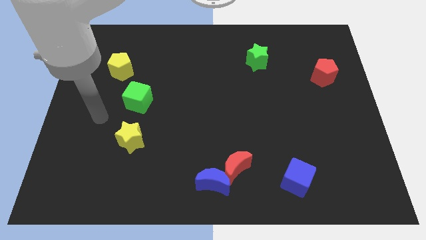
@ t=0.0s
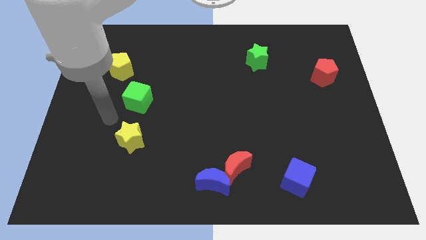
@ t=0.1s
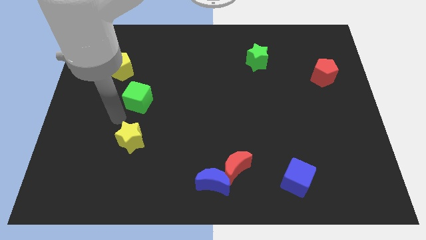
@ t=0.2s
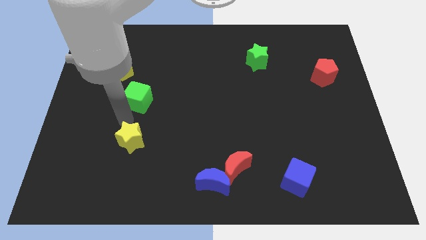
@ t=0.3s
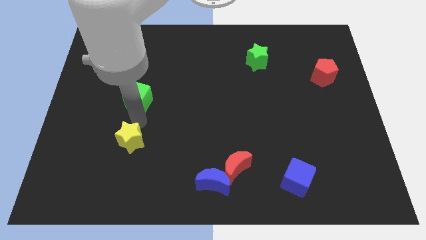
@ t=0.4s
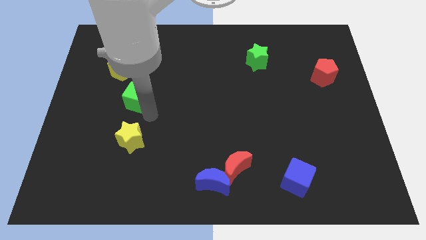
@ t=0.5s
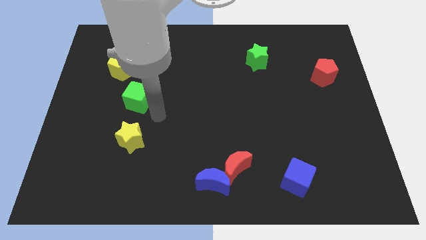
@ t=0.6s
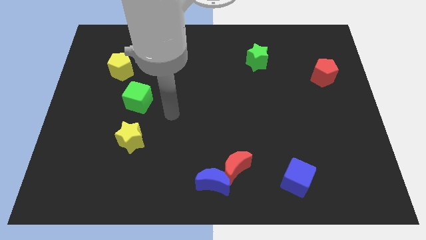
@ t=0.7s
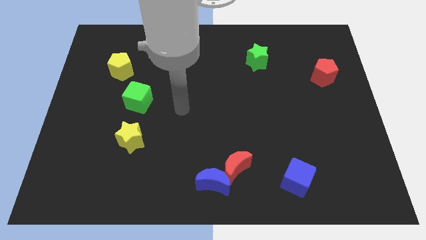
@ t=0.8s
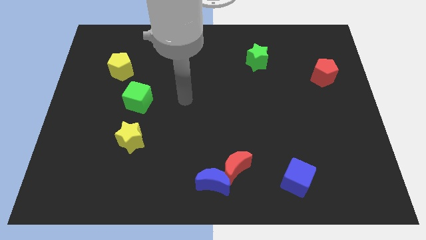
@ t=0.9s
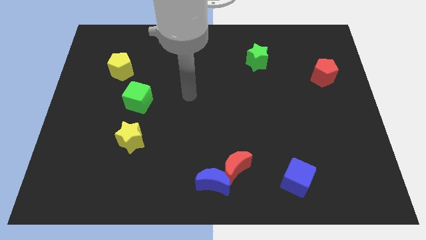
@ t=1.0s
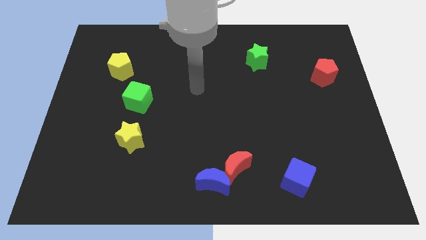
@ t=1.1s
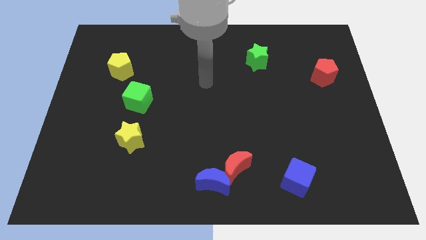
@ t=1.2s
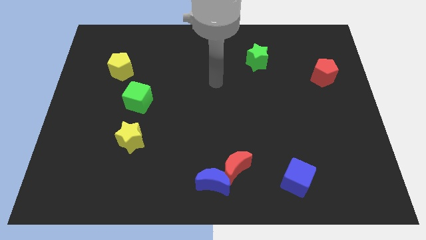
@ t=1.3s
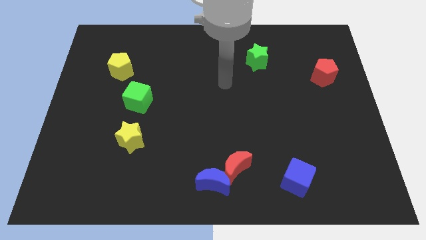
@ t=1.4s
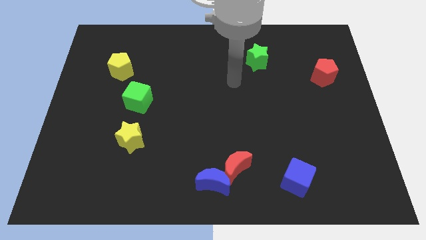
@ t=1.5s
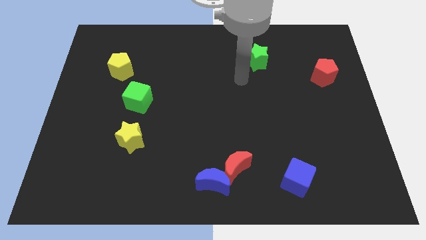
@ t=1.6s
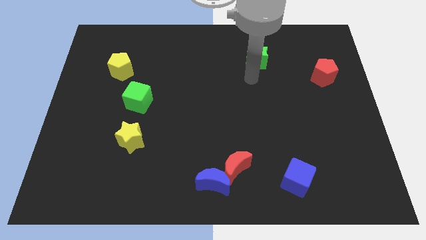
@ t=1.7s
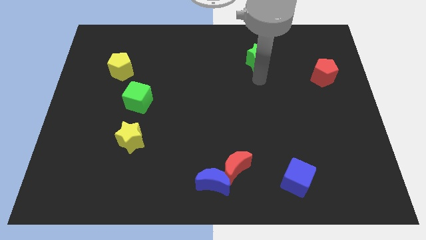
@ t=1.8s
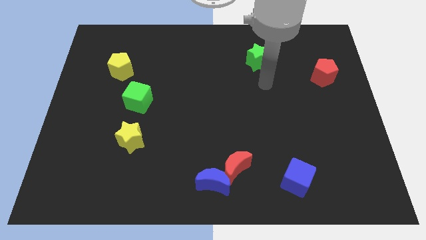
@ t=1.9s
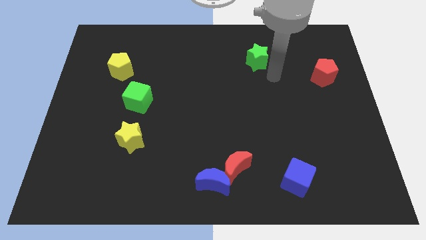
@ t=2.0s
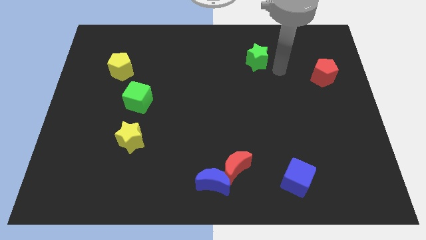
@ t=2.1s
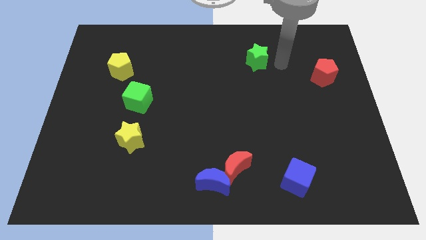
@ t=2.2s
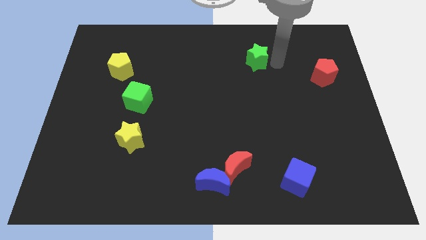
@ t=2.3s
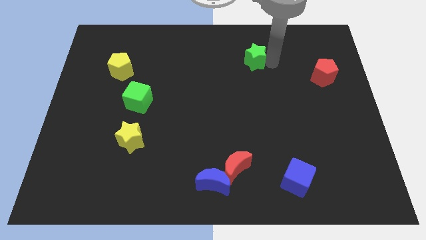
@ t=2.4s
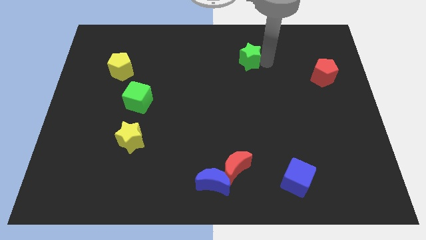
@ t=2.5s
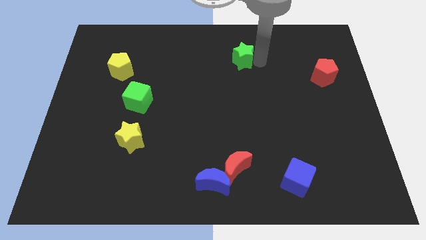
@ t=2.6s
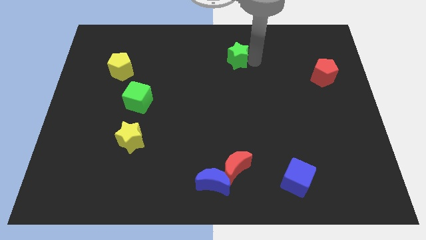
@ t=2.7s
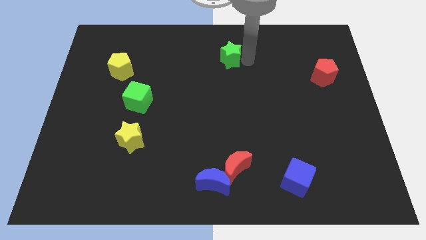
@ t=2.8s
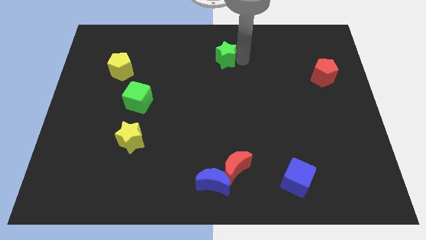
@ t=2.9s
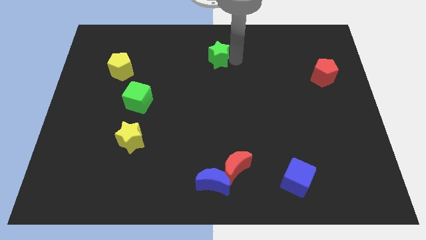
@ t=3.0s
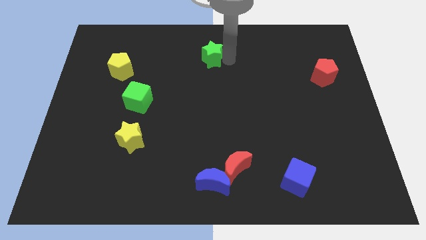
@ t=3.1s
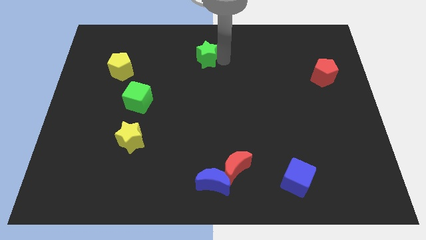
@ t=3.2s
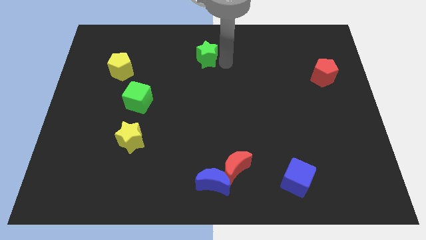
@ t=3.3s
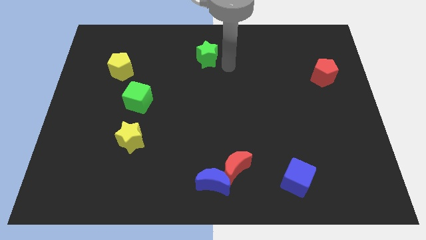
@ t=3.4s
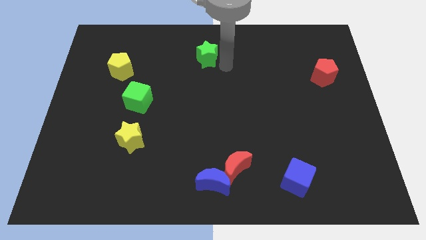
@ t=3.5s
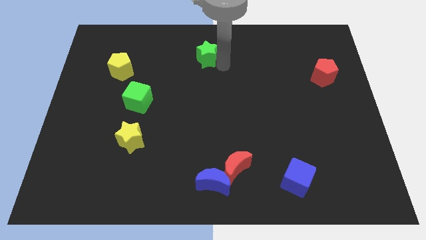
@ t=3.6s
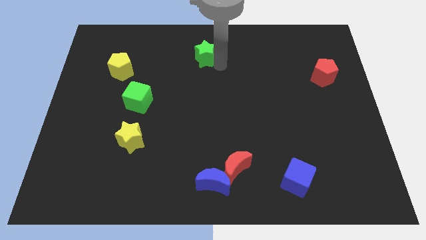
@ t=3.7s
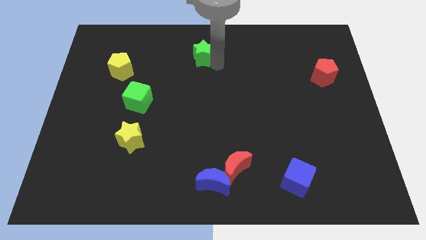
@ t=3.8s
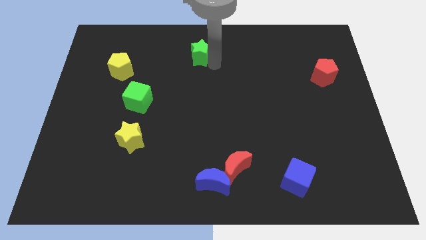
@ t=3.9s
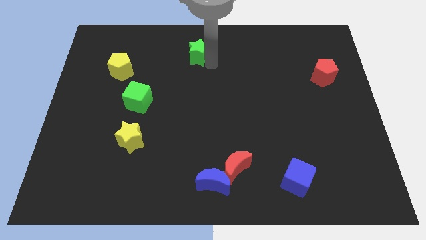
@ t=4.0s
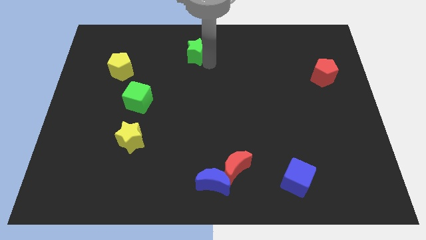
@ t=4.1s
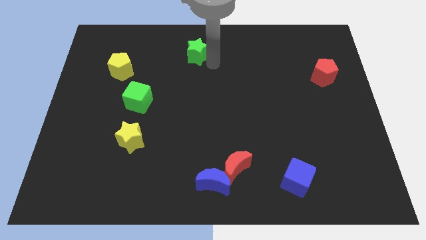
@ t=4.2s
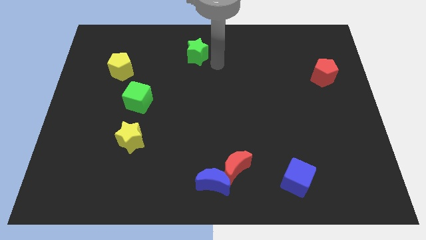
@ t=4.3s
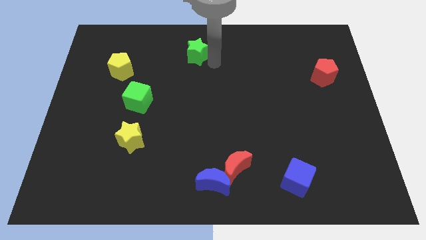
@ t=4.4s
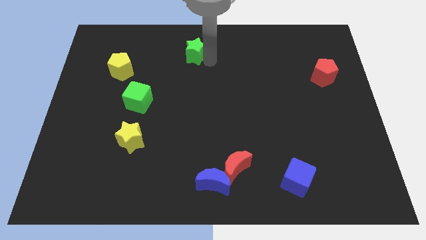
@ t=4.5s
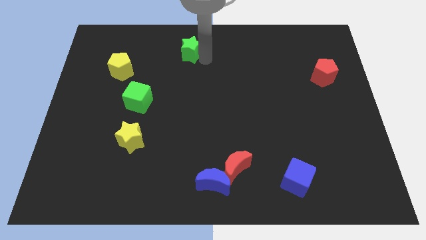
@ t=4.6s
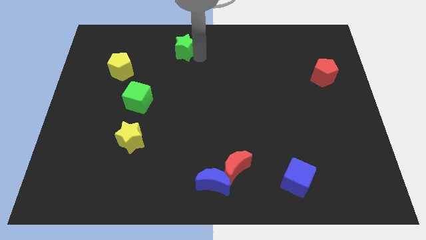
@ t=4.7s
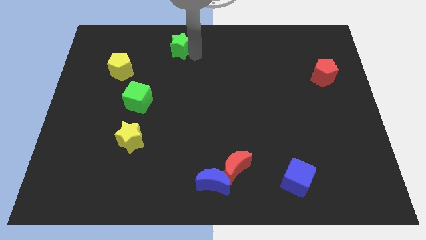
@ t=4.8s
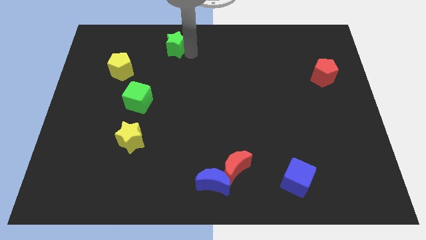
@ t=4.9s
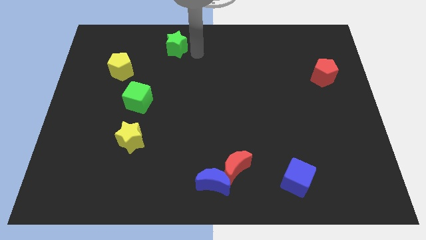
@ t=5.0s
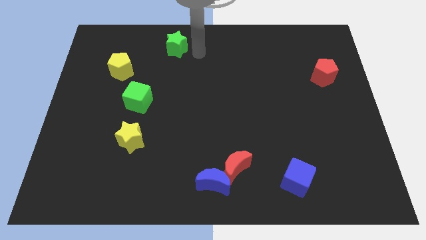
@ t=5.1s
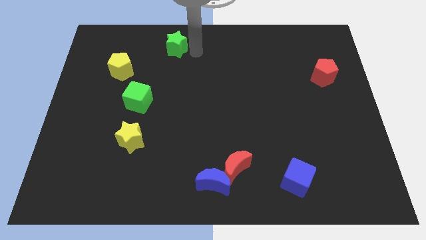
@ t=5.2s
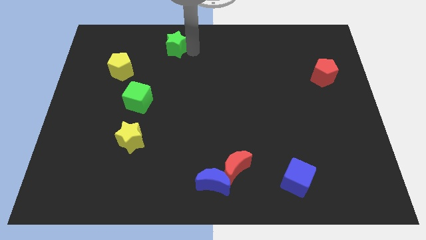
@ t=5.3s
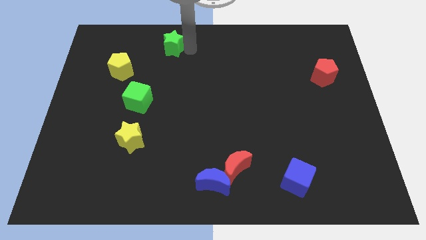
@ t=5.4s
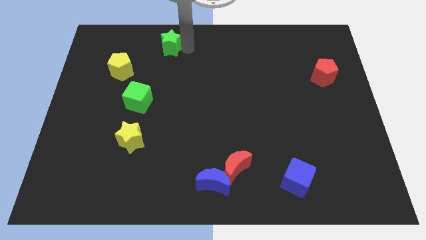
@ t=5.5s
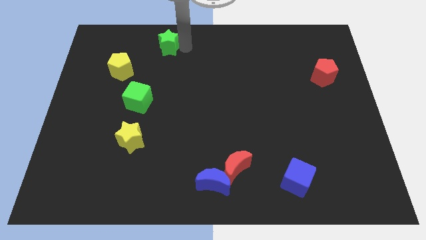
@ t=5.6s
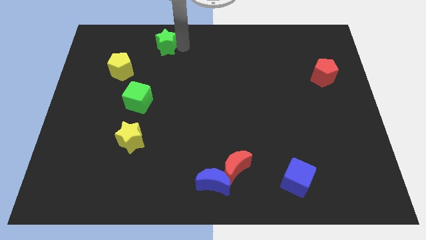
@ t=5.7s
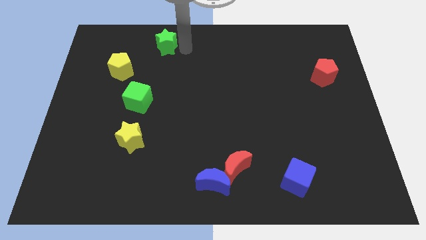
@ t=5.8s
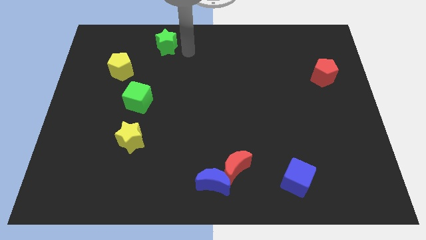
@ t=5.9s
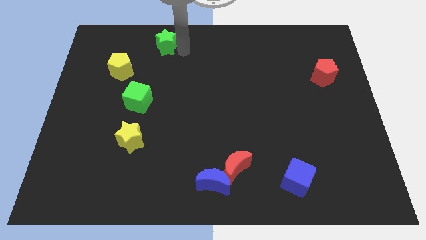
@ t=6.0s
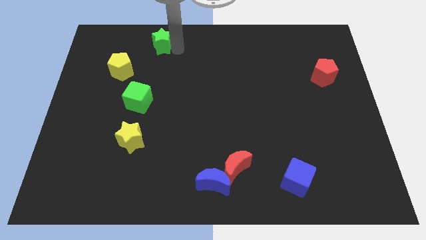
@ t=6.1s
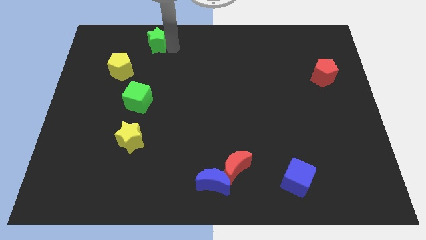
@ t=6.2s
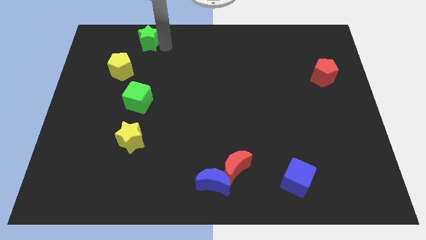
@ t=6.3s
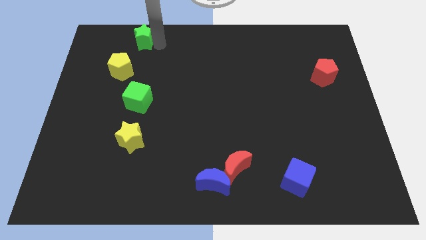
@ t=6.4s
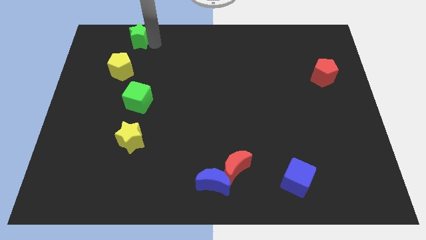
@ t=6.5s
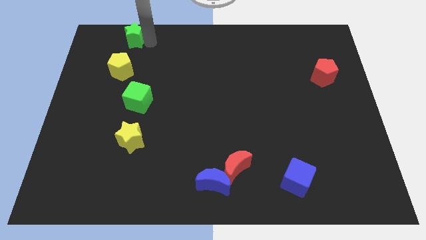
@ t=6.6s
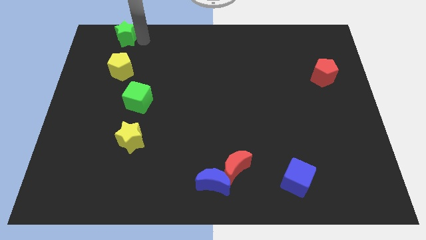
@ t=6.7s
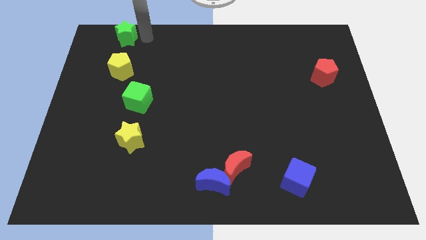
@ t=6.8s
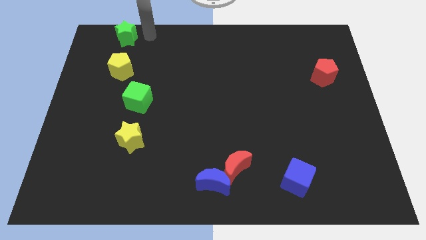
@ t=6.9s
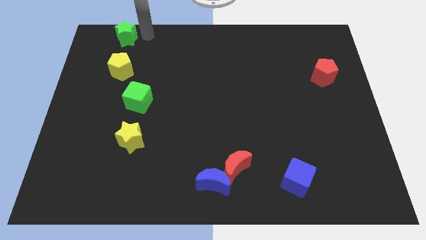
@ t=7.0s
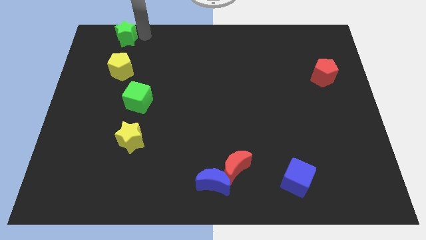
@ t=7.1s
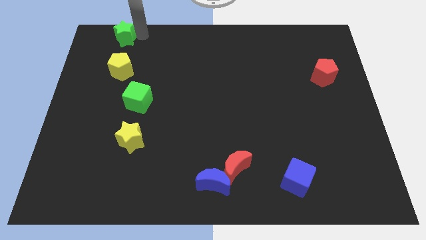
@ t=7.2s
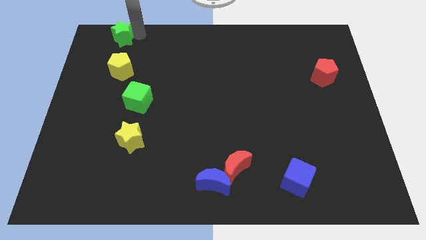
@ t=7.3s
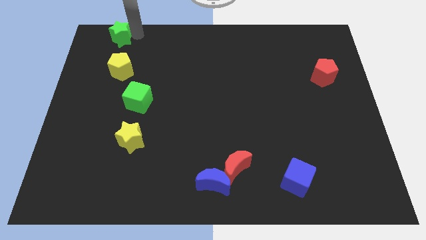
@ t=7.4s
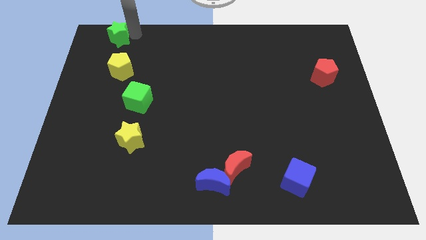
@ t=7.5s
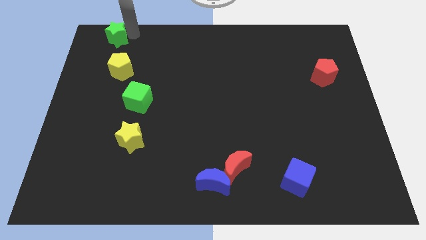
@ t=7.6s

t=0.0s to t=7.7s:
push the green star to the upper left corner
